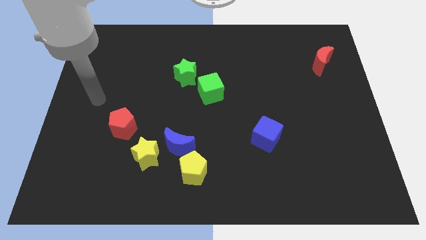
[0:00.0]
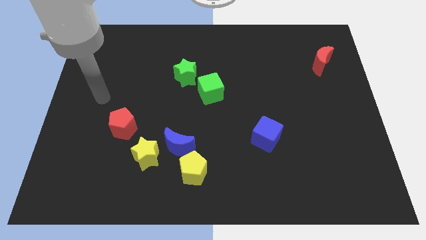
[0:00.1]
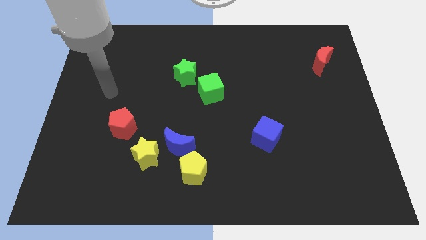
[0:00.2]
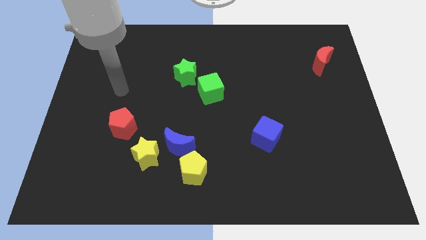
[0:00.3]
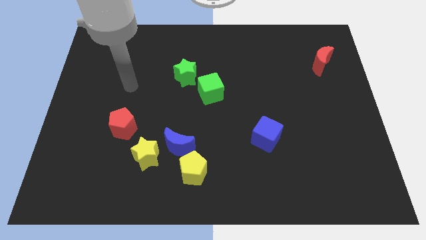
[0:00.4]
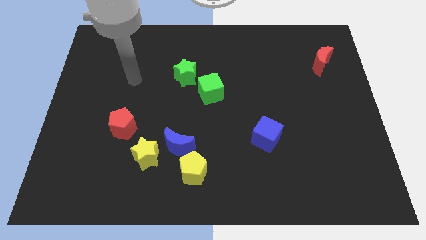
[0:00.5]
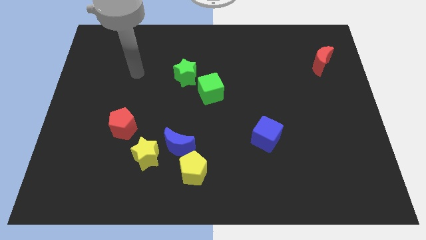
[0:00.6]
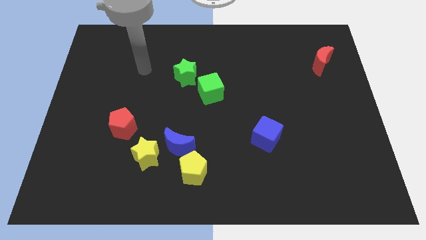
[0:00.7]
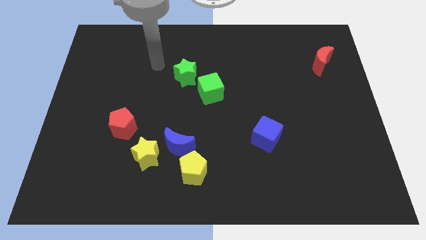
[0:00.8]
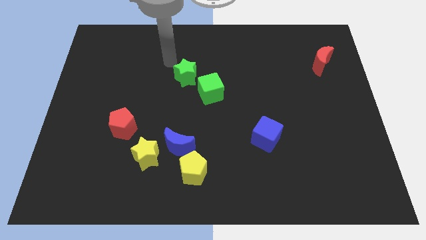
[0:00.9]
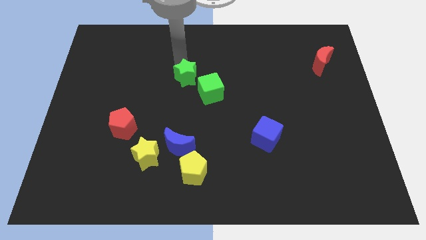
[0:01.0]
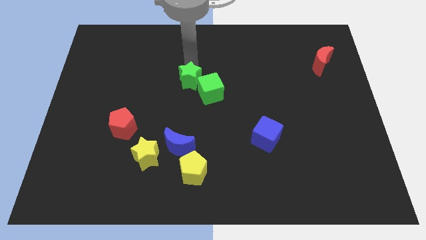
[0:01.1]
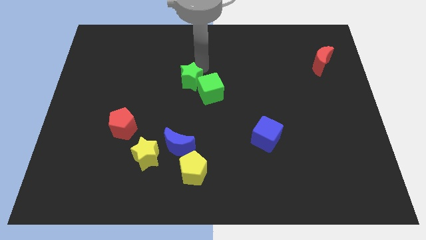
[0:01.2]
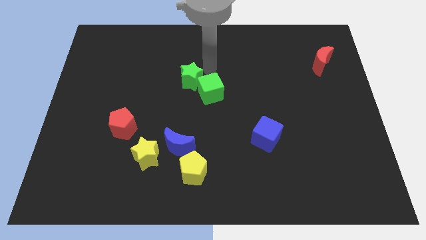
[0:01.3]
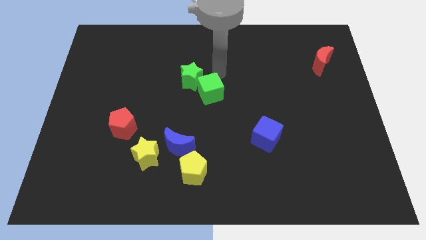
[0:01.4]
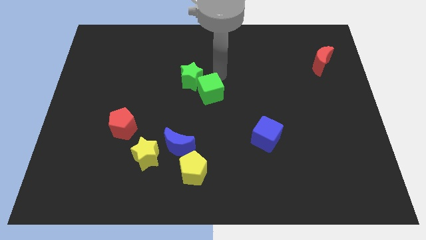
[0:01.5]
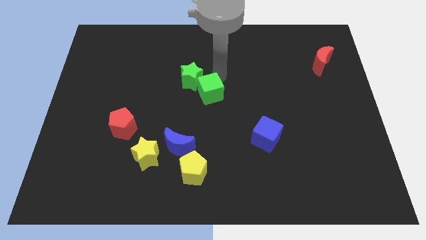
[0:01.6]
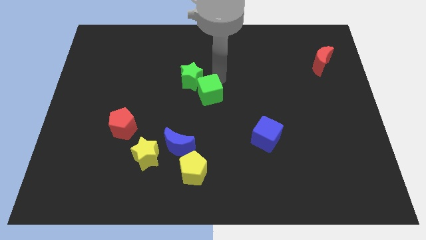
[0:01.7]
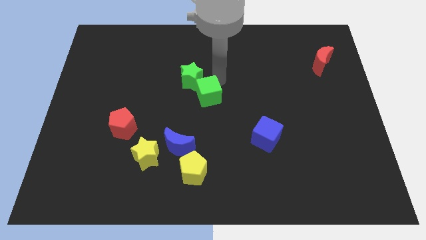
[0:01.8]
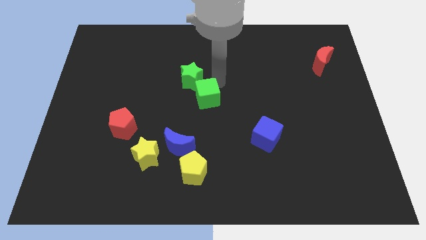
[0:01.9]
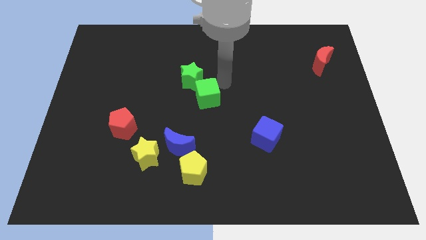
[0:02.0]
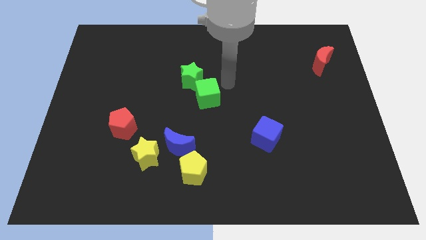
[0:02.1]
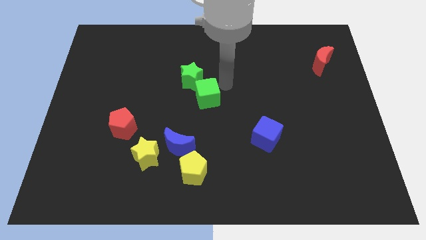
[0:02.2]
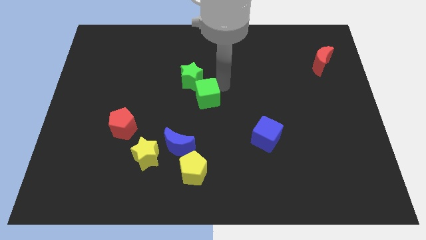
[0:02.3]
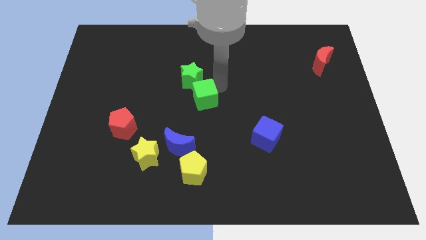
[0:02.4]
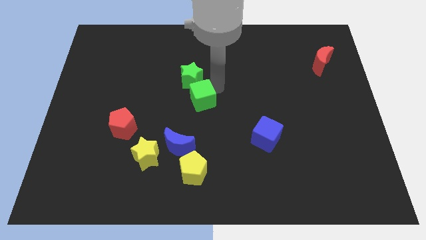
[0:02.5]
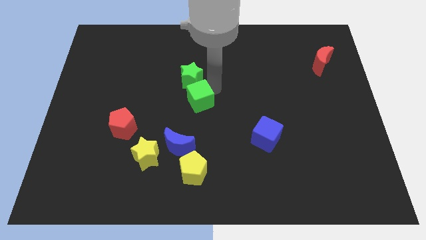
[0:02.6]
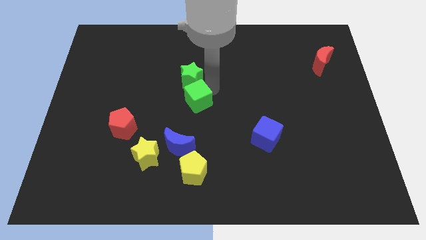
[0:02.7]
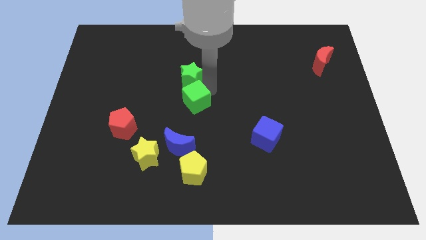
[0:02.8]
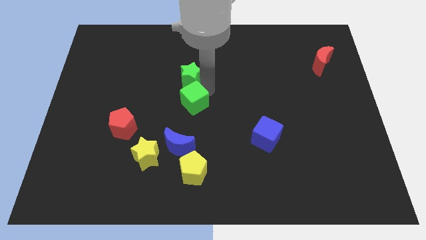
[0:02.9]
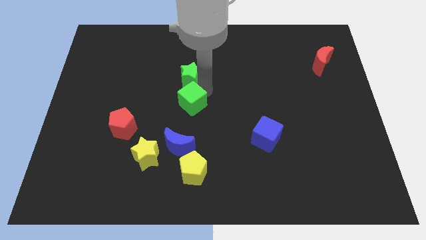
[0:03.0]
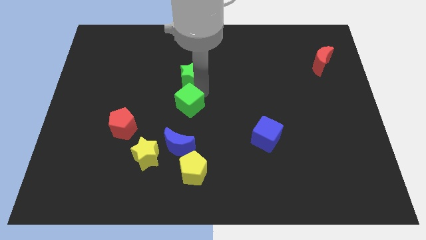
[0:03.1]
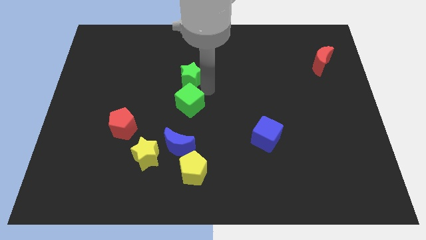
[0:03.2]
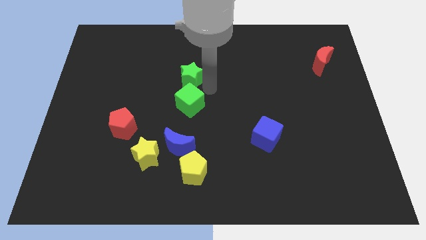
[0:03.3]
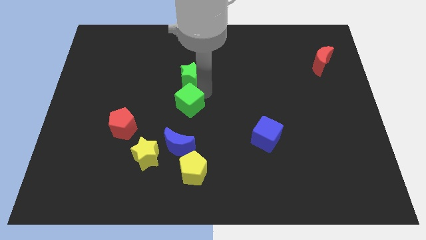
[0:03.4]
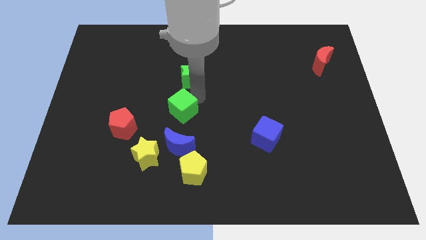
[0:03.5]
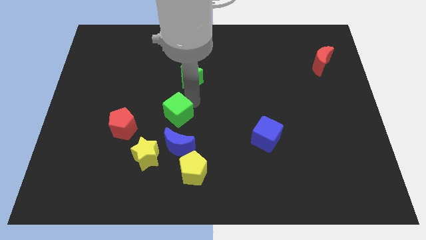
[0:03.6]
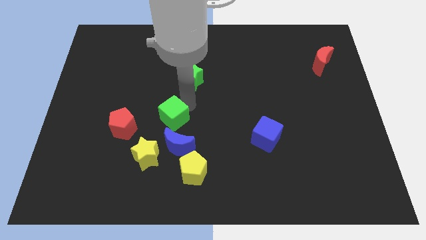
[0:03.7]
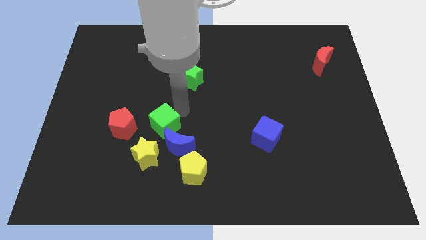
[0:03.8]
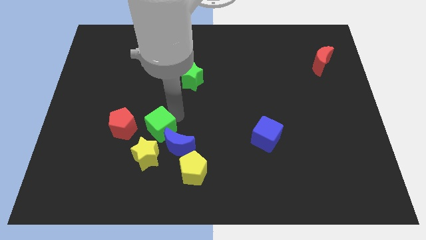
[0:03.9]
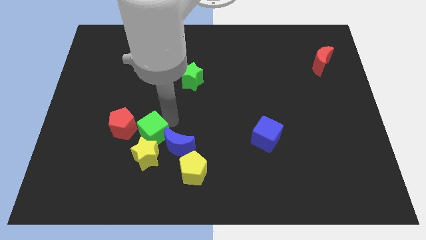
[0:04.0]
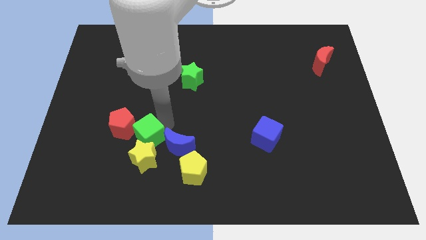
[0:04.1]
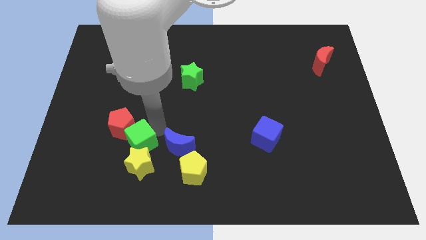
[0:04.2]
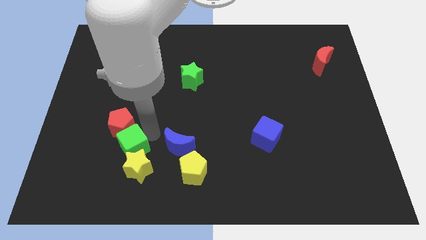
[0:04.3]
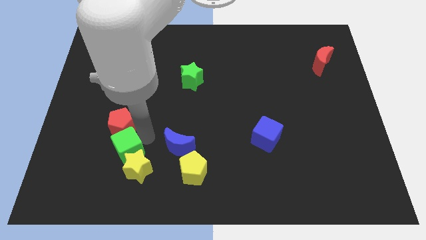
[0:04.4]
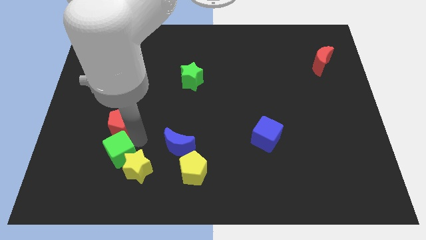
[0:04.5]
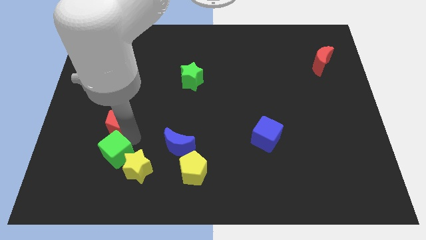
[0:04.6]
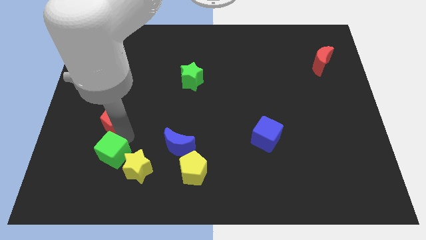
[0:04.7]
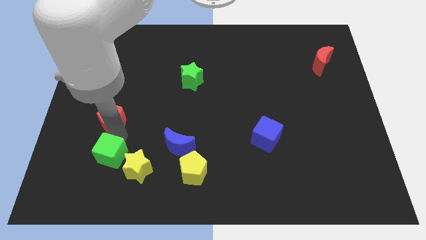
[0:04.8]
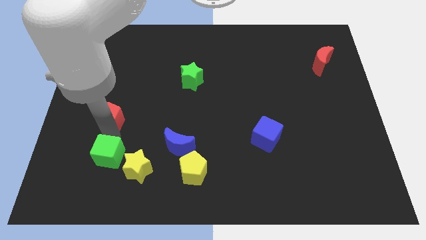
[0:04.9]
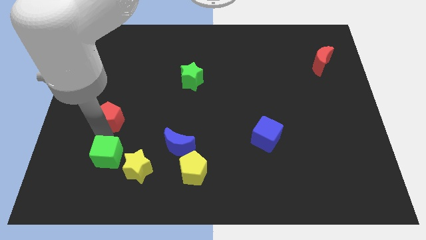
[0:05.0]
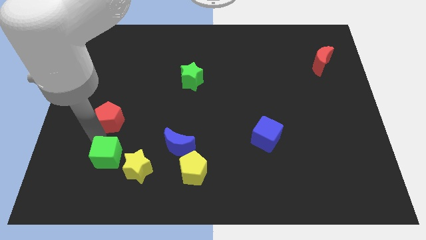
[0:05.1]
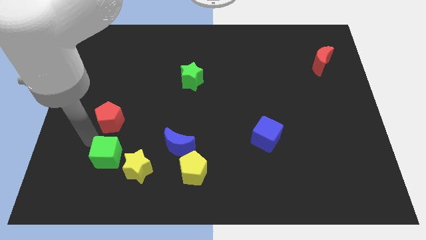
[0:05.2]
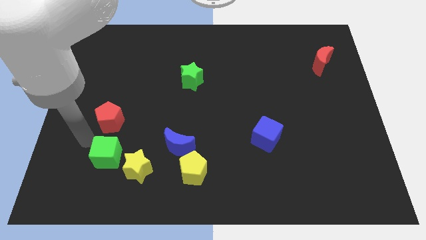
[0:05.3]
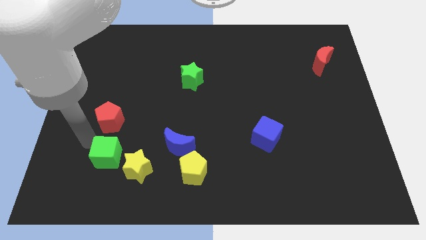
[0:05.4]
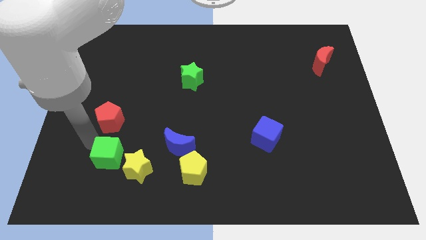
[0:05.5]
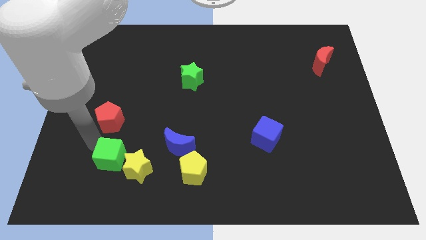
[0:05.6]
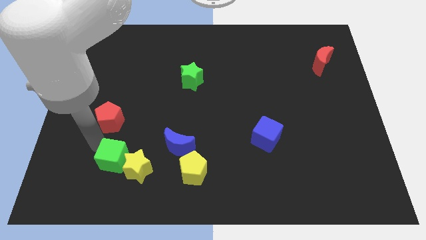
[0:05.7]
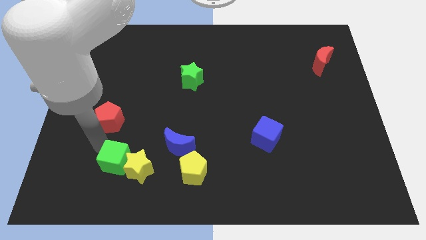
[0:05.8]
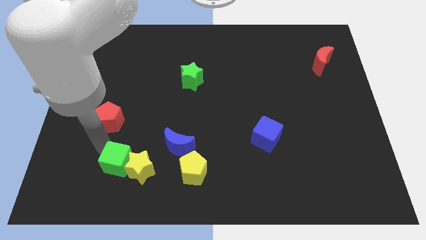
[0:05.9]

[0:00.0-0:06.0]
slide the green cube left of the yellow pentagon

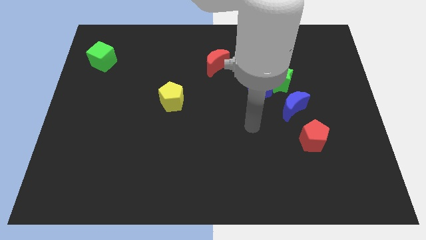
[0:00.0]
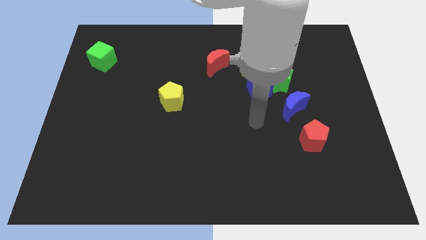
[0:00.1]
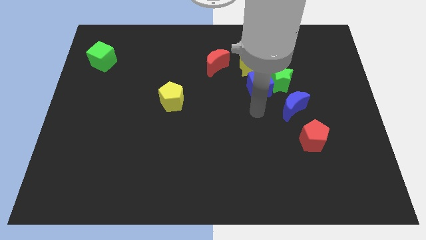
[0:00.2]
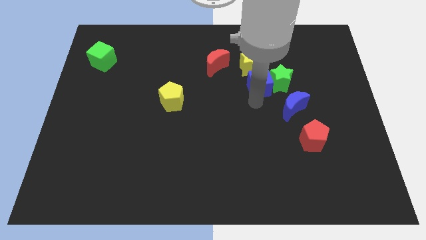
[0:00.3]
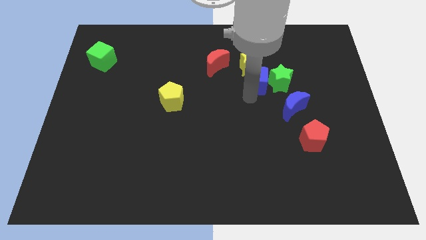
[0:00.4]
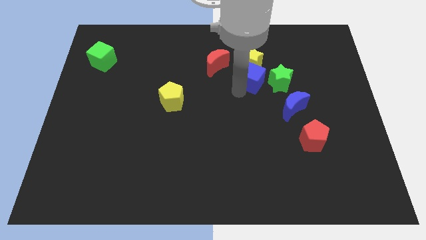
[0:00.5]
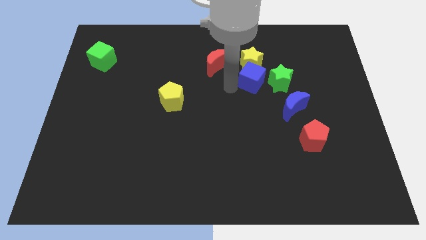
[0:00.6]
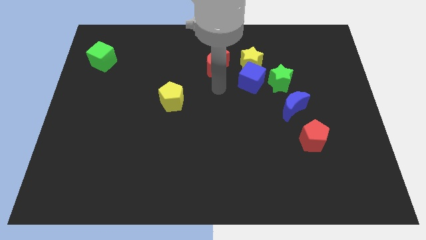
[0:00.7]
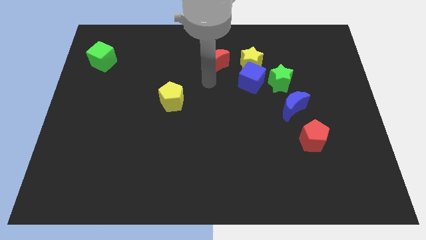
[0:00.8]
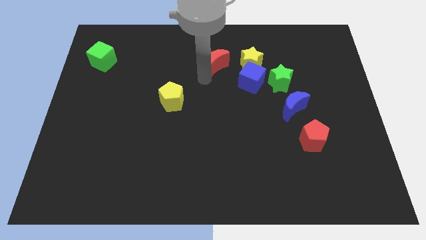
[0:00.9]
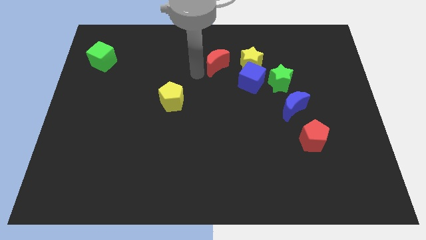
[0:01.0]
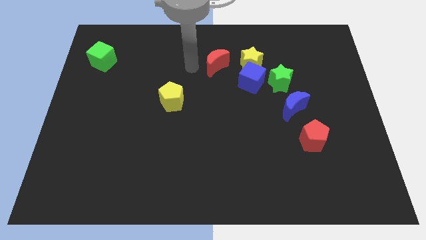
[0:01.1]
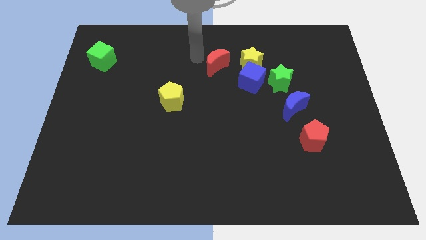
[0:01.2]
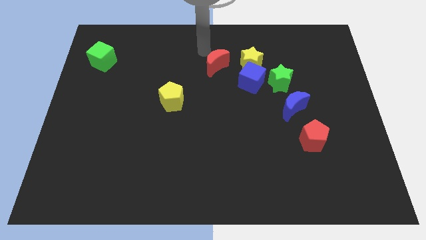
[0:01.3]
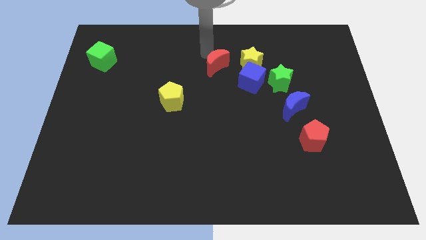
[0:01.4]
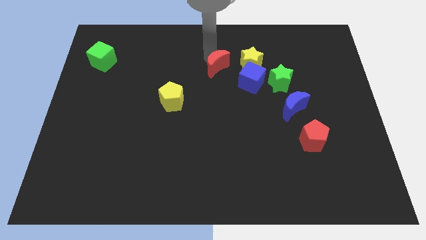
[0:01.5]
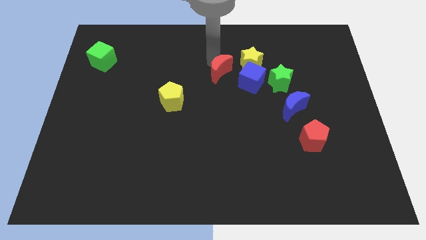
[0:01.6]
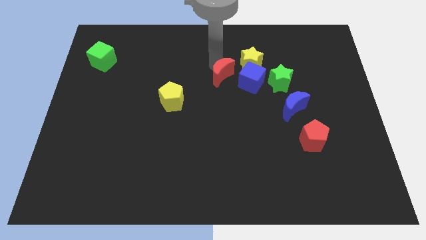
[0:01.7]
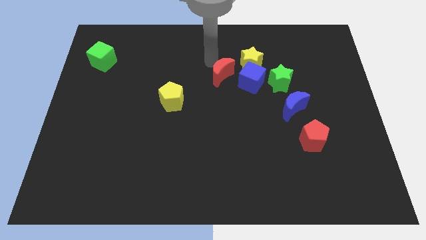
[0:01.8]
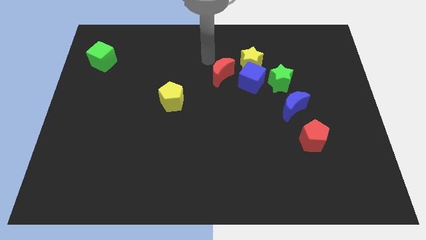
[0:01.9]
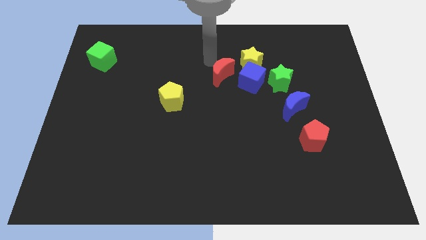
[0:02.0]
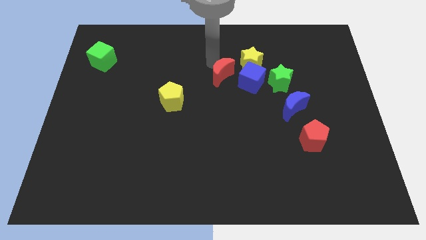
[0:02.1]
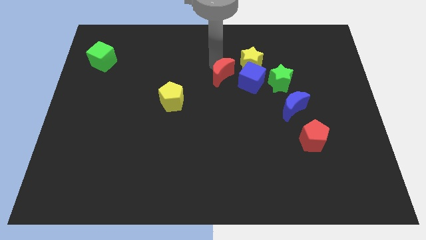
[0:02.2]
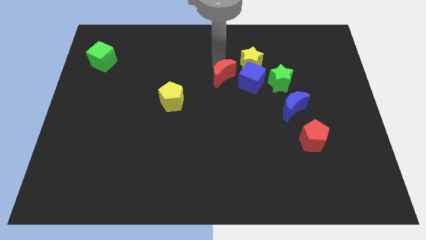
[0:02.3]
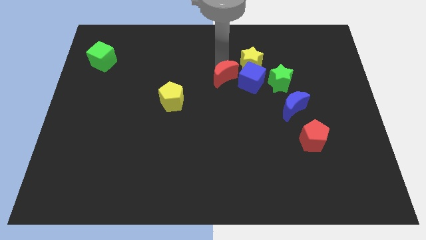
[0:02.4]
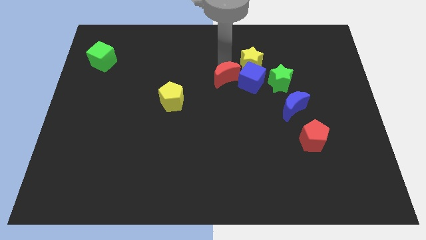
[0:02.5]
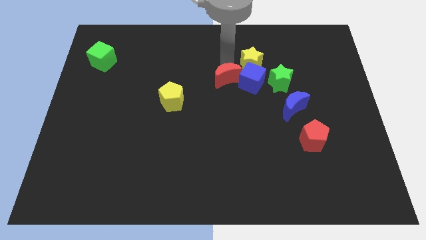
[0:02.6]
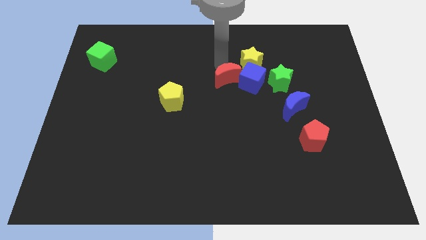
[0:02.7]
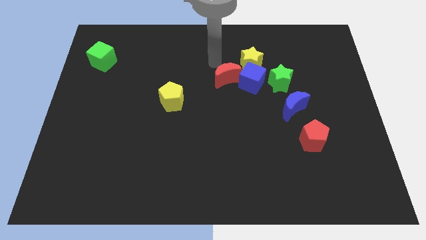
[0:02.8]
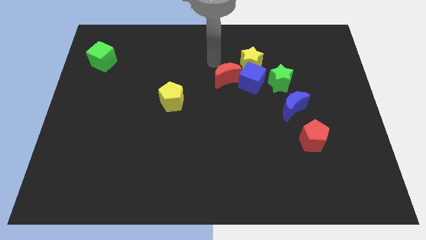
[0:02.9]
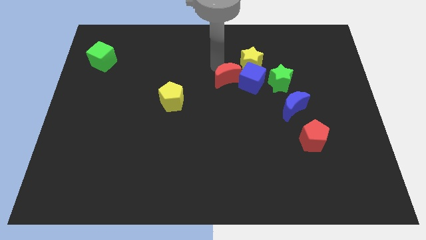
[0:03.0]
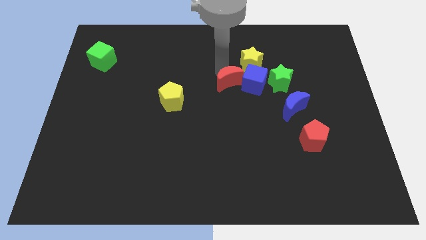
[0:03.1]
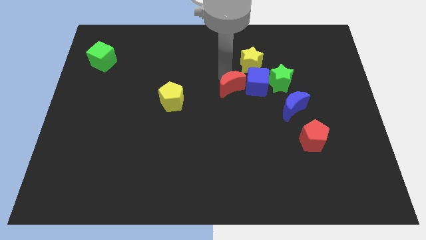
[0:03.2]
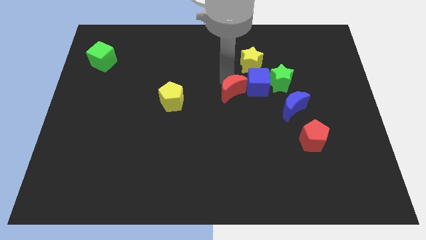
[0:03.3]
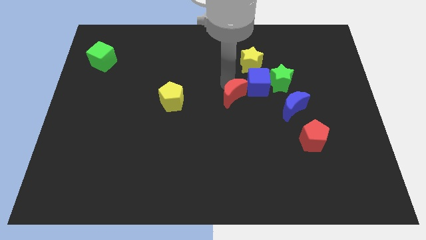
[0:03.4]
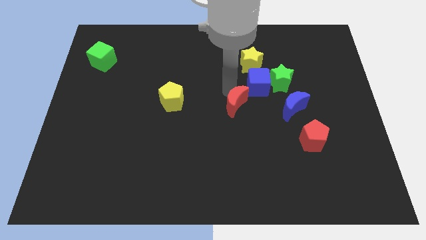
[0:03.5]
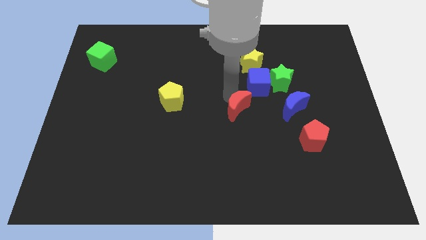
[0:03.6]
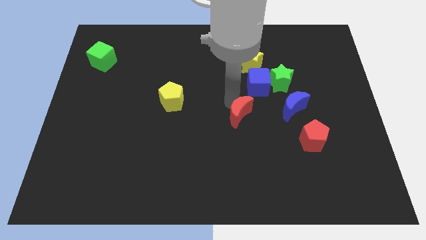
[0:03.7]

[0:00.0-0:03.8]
move the red moon to the bottom of the blue cube
